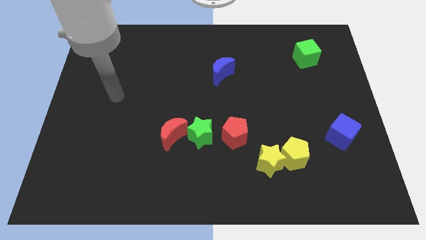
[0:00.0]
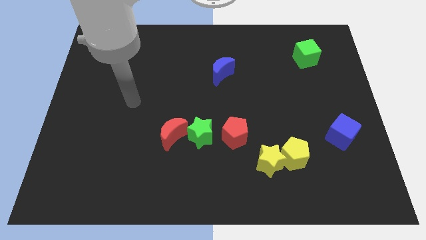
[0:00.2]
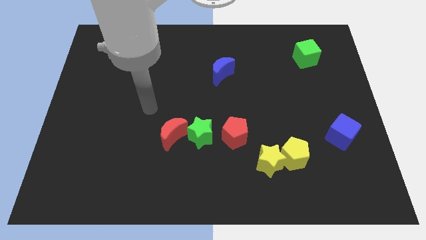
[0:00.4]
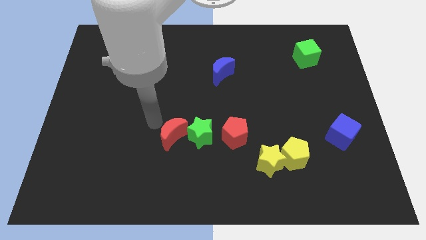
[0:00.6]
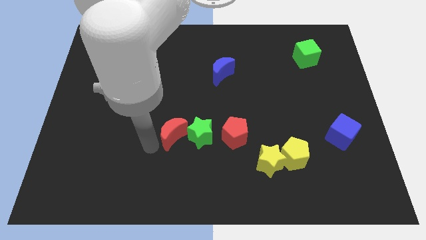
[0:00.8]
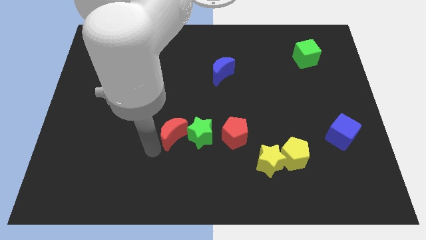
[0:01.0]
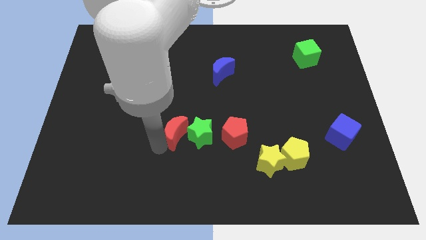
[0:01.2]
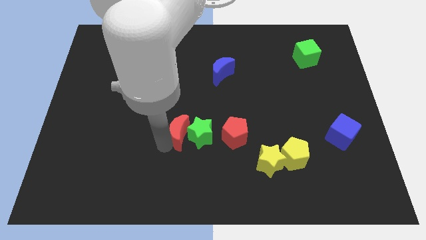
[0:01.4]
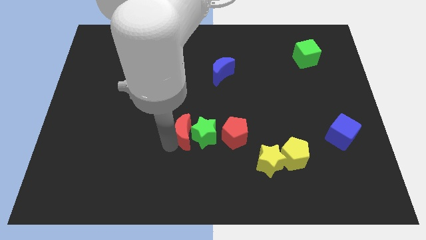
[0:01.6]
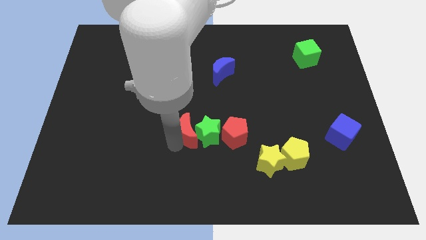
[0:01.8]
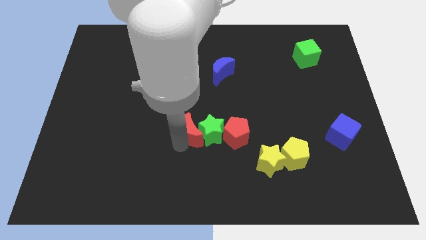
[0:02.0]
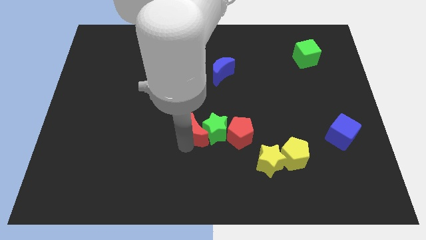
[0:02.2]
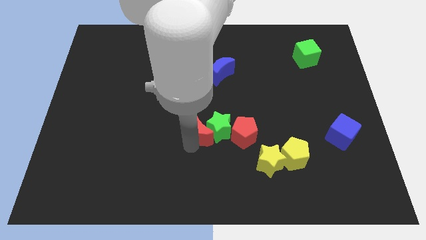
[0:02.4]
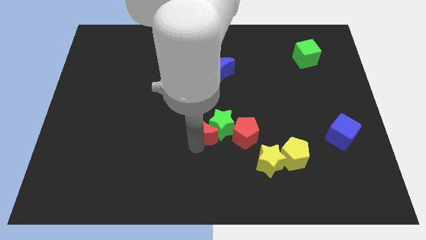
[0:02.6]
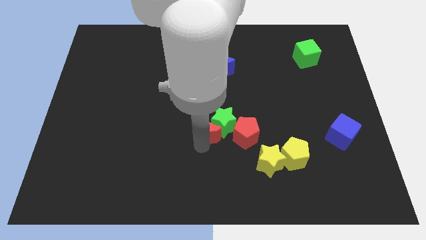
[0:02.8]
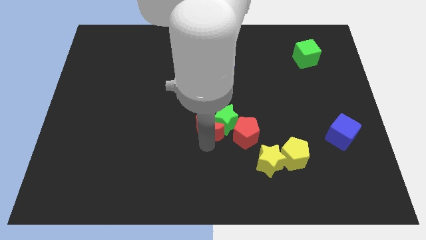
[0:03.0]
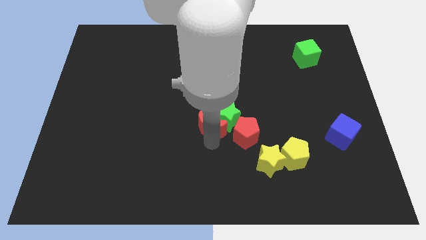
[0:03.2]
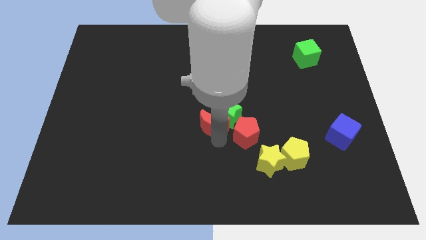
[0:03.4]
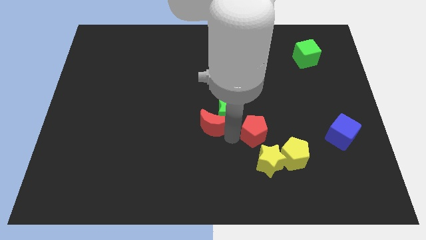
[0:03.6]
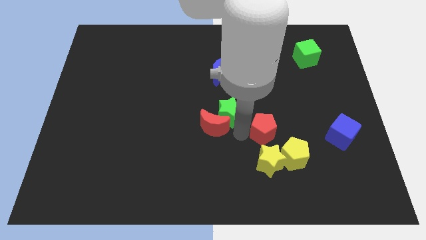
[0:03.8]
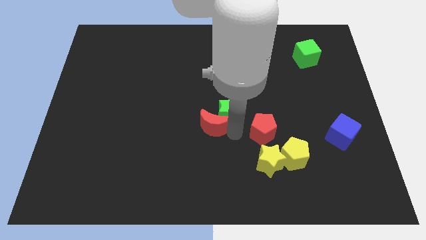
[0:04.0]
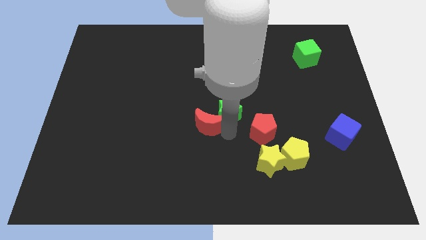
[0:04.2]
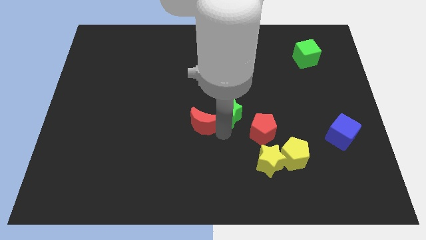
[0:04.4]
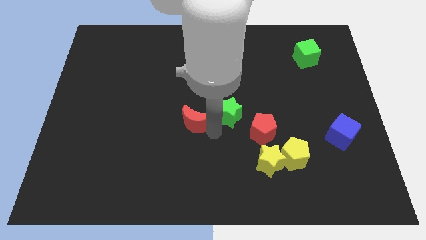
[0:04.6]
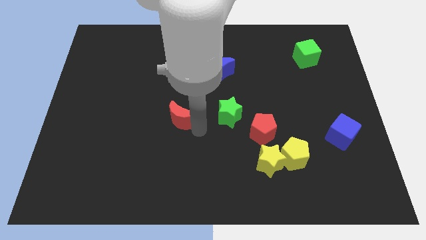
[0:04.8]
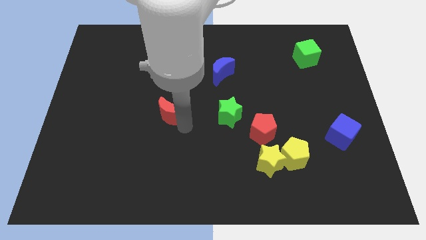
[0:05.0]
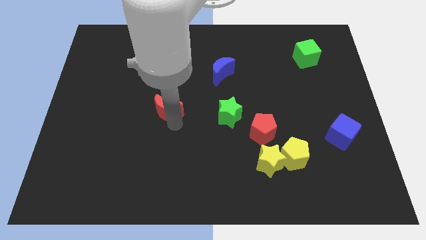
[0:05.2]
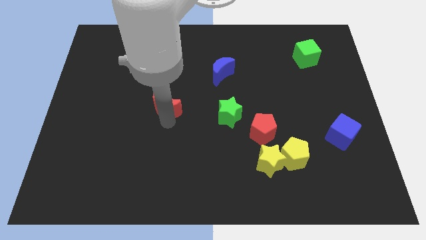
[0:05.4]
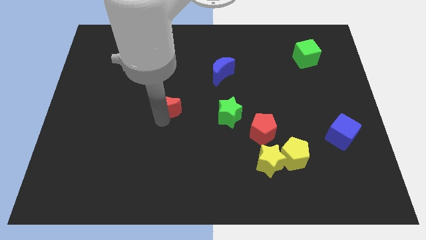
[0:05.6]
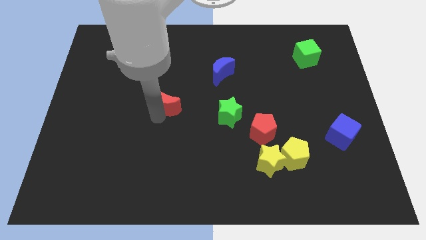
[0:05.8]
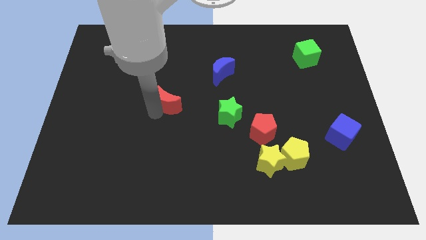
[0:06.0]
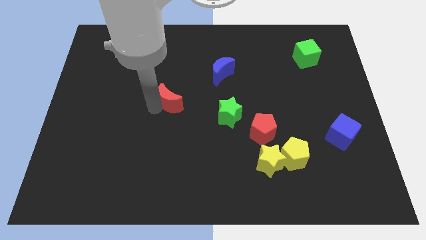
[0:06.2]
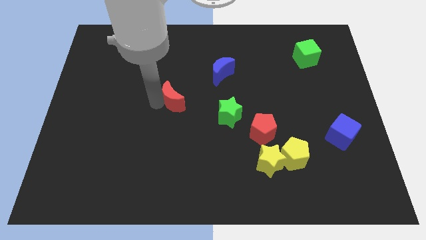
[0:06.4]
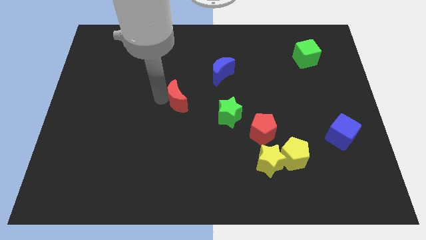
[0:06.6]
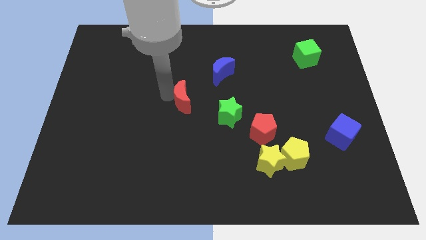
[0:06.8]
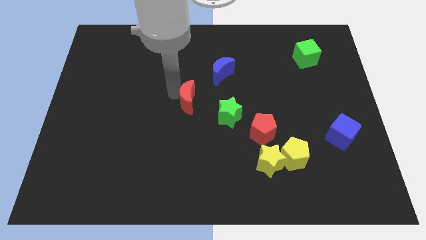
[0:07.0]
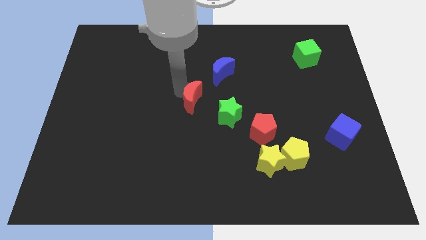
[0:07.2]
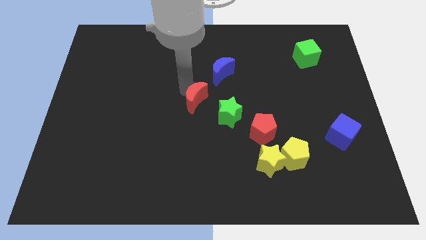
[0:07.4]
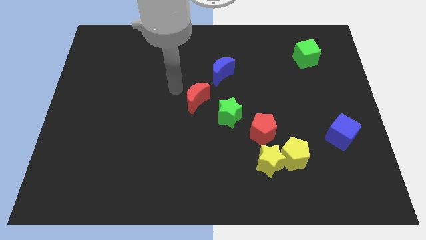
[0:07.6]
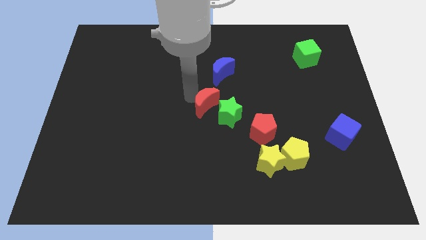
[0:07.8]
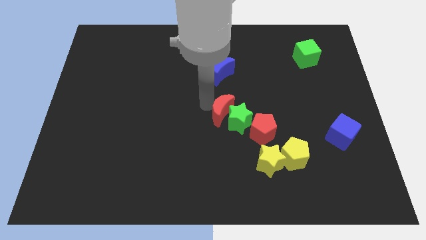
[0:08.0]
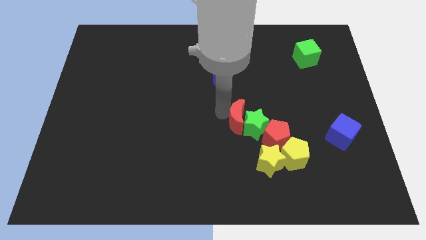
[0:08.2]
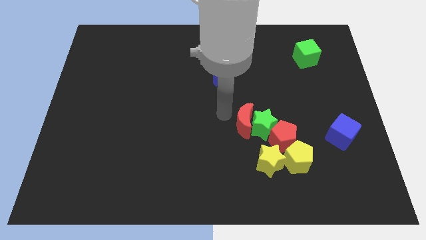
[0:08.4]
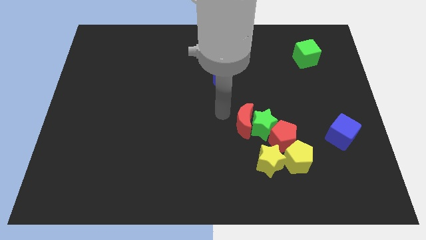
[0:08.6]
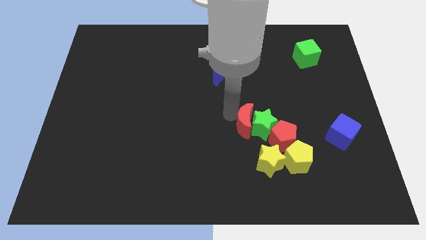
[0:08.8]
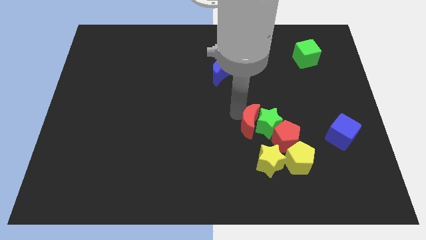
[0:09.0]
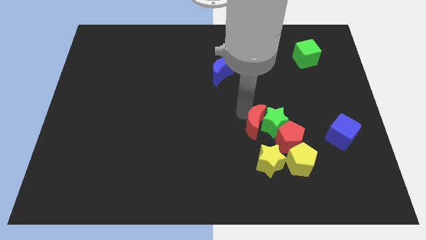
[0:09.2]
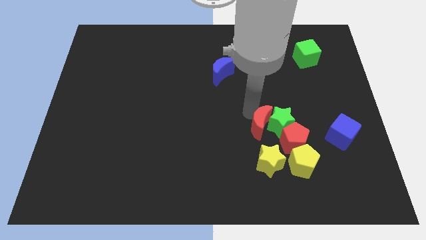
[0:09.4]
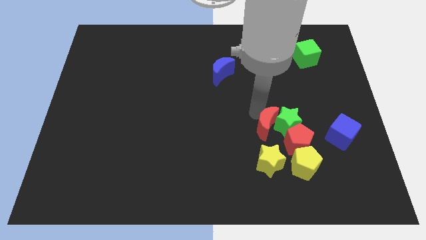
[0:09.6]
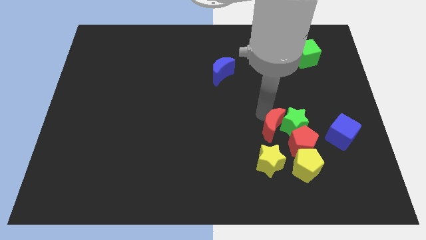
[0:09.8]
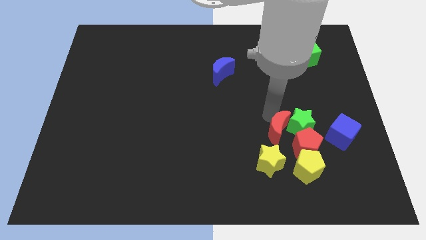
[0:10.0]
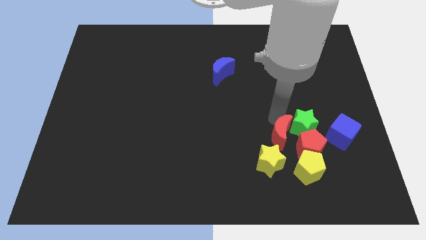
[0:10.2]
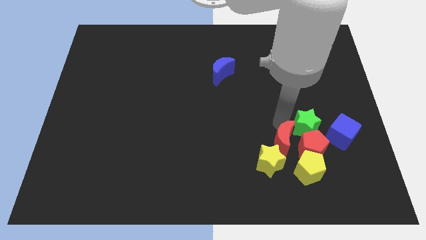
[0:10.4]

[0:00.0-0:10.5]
slide the red moon close to the red pentagon

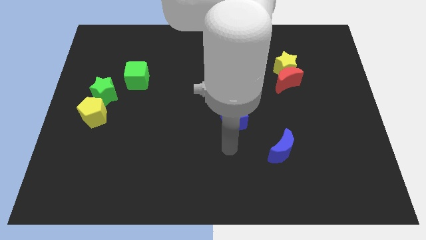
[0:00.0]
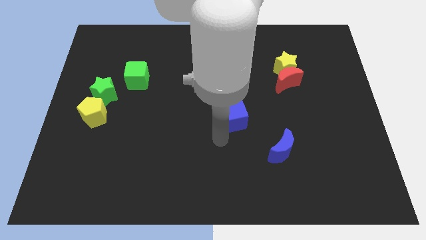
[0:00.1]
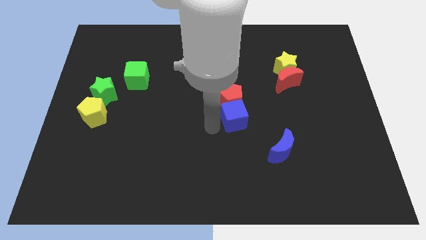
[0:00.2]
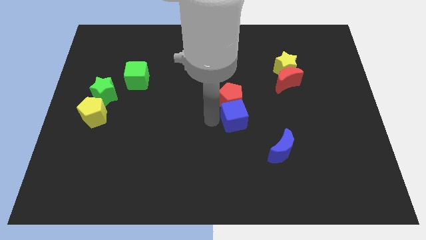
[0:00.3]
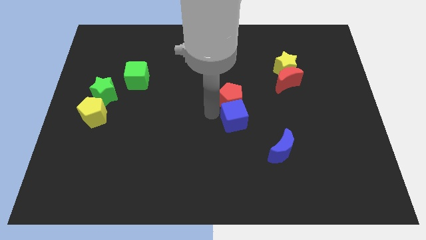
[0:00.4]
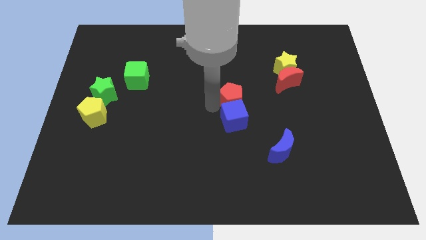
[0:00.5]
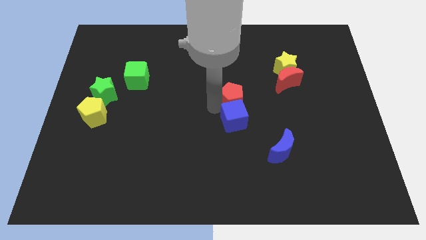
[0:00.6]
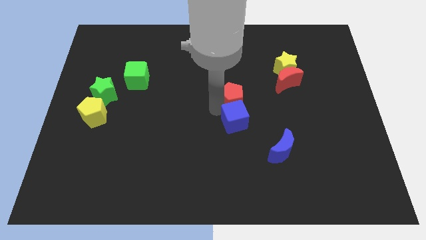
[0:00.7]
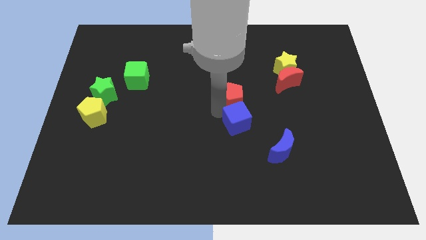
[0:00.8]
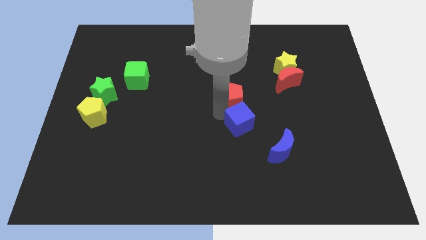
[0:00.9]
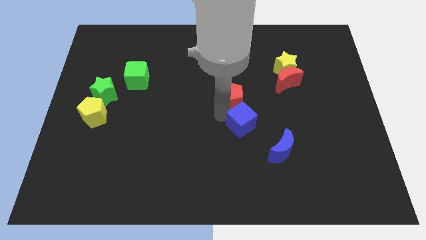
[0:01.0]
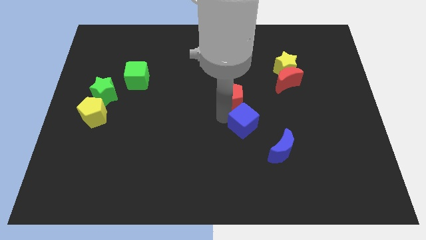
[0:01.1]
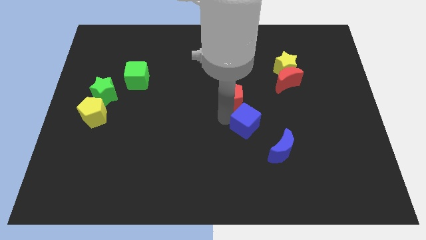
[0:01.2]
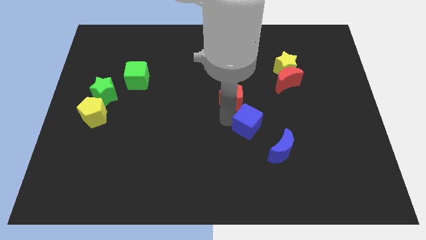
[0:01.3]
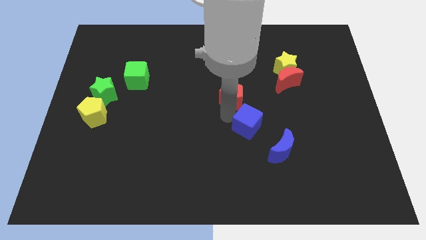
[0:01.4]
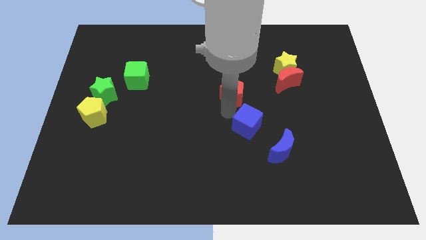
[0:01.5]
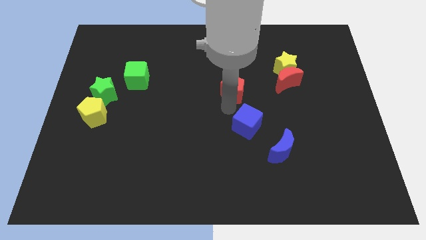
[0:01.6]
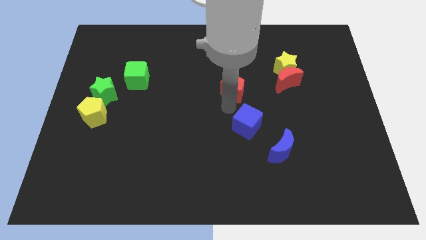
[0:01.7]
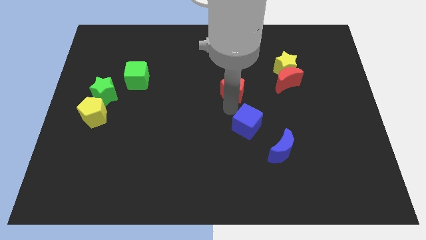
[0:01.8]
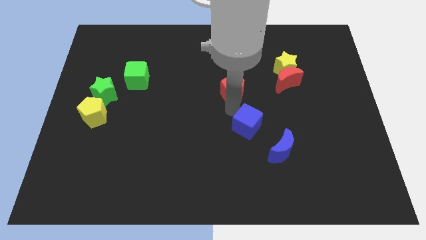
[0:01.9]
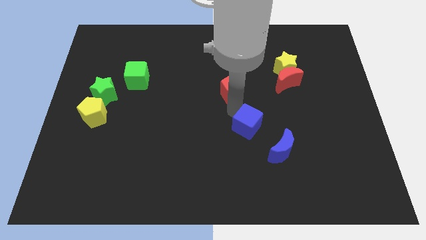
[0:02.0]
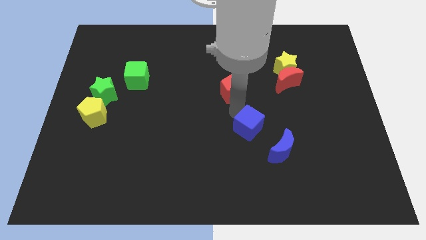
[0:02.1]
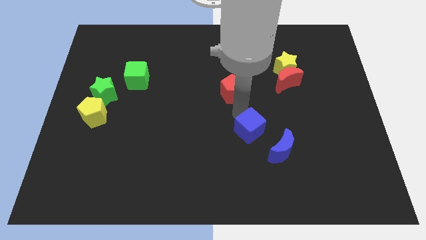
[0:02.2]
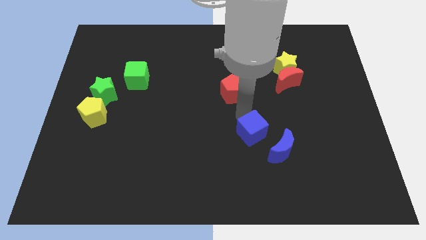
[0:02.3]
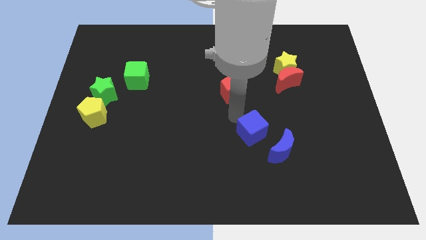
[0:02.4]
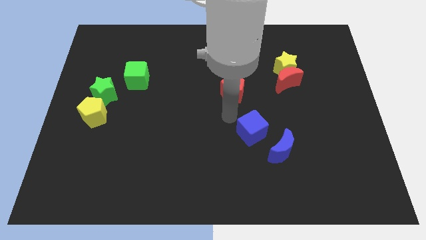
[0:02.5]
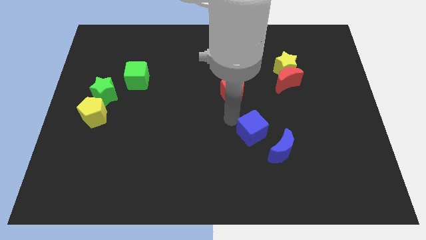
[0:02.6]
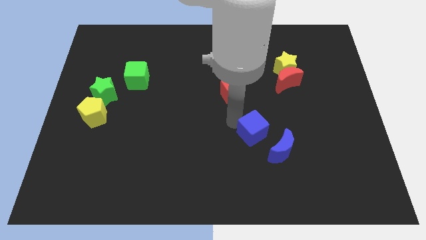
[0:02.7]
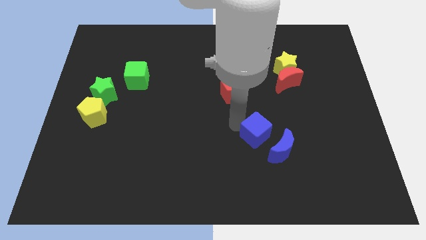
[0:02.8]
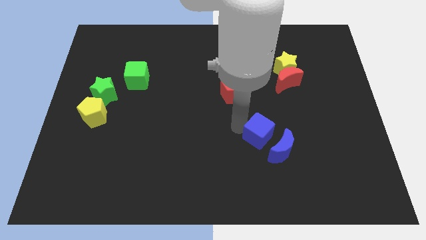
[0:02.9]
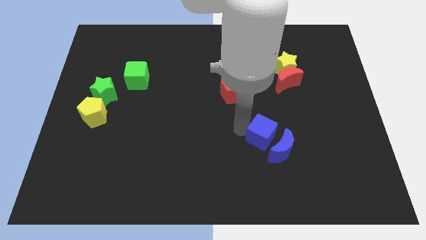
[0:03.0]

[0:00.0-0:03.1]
slide the blue cube close to the blue moon
